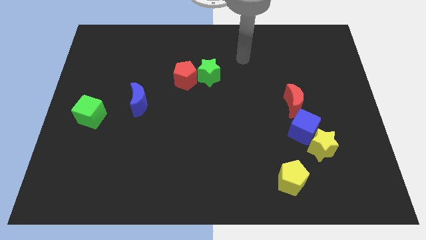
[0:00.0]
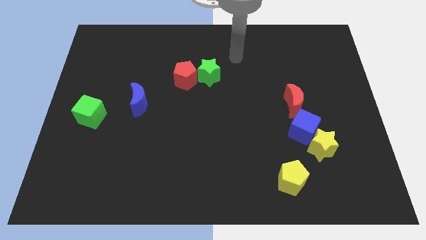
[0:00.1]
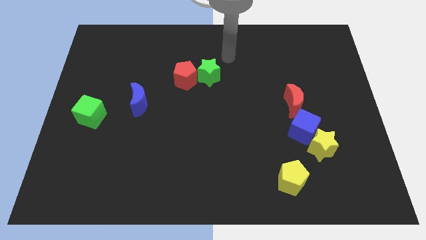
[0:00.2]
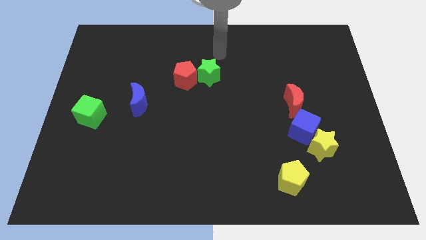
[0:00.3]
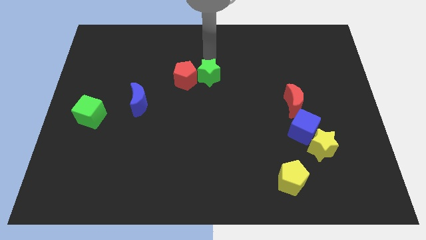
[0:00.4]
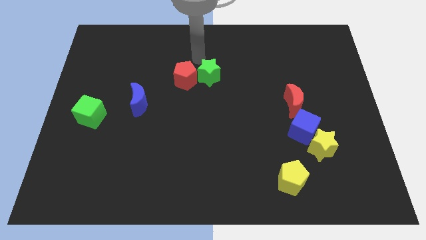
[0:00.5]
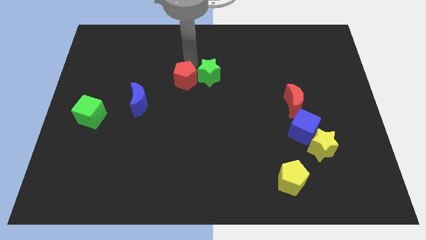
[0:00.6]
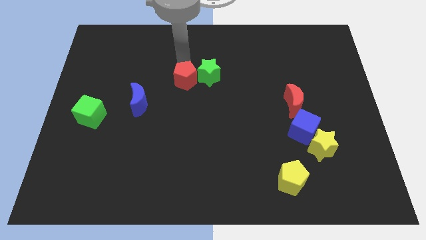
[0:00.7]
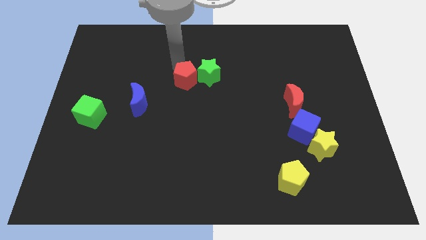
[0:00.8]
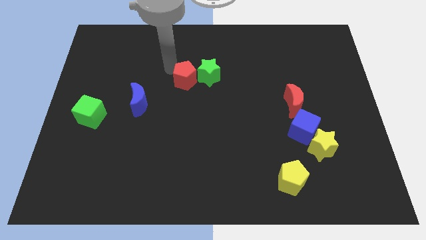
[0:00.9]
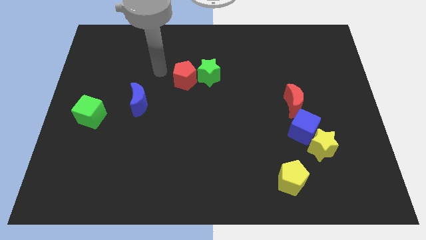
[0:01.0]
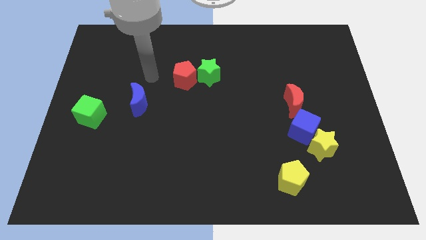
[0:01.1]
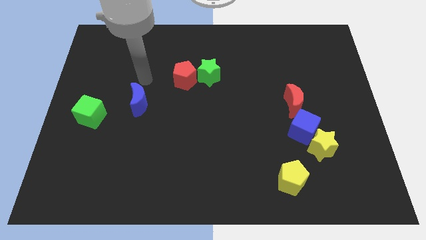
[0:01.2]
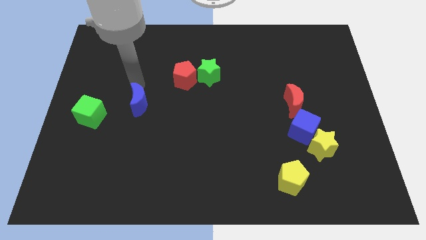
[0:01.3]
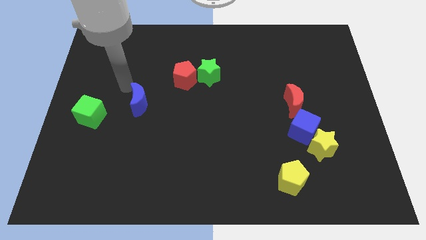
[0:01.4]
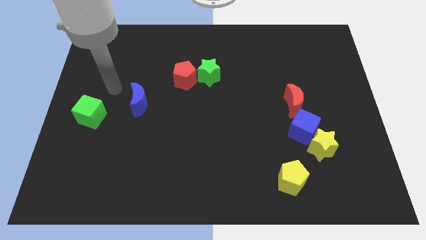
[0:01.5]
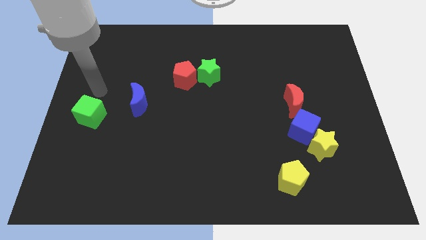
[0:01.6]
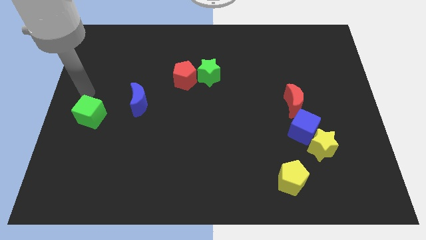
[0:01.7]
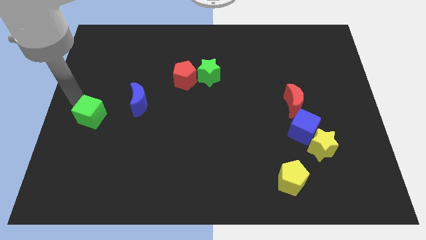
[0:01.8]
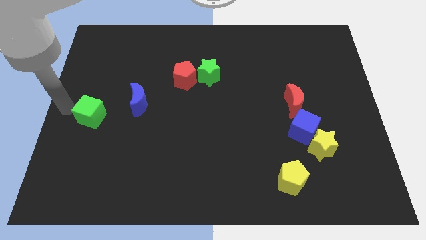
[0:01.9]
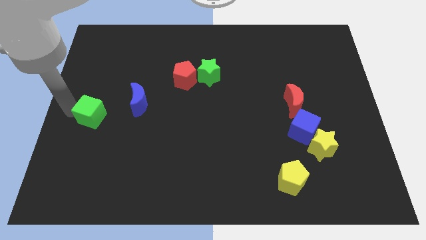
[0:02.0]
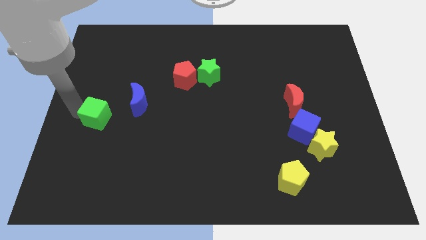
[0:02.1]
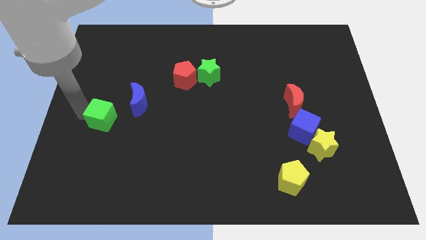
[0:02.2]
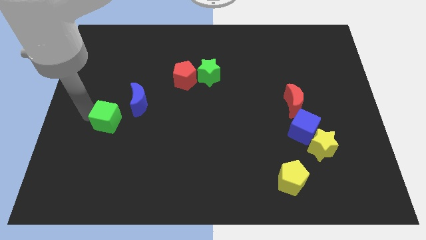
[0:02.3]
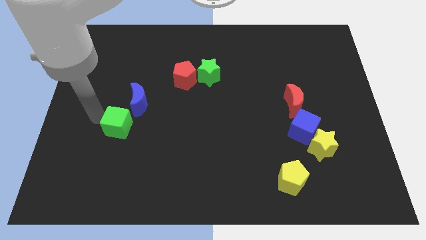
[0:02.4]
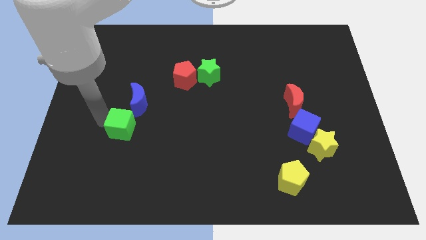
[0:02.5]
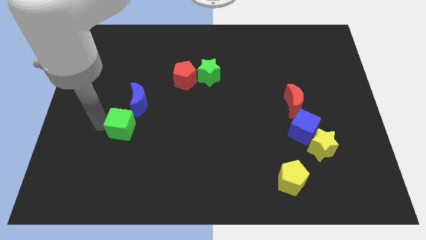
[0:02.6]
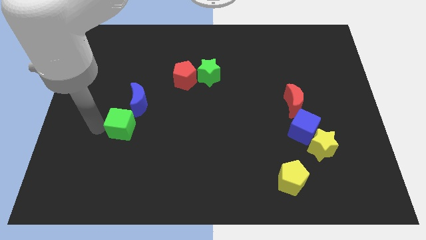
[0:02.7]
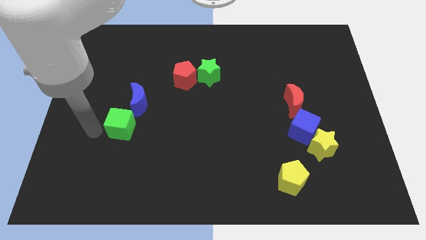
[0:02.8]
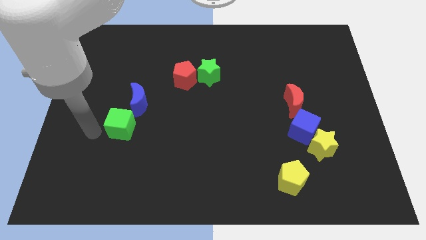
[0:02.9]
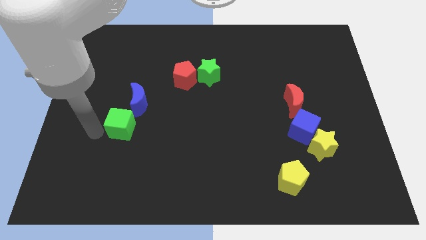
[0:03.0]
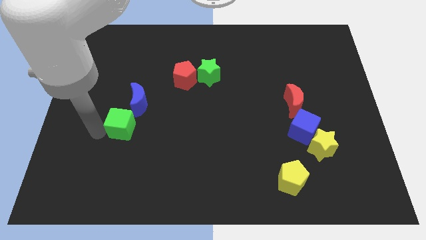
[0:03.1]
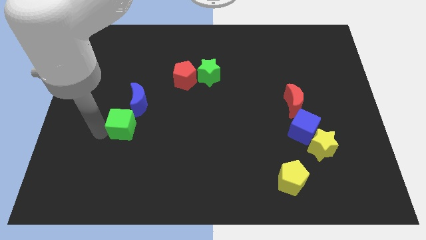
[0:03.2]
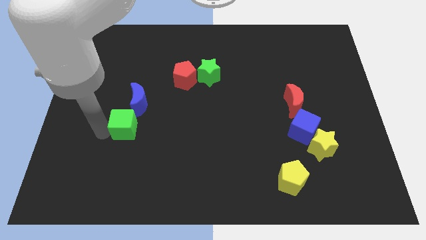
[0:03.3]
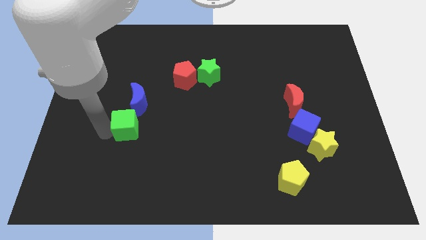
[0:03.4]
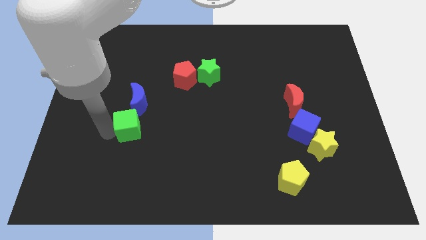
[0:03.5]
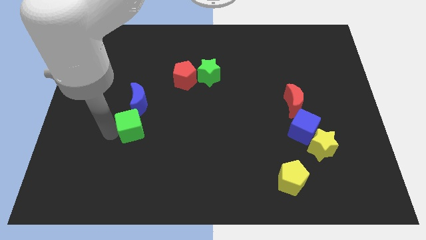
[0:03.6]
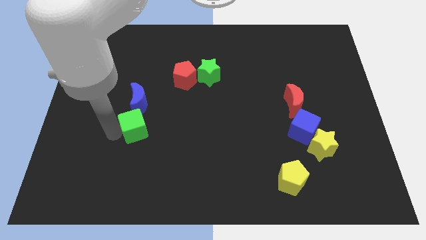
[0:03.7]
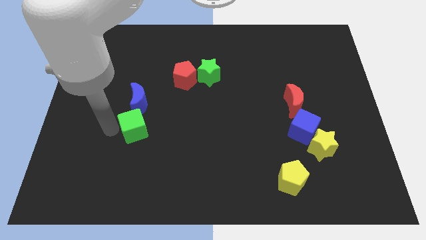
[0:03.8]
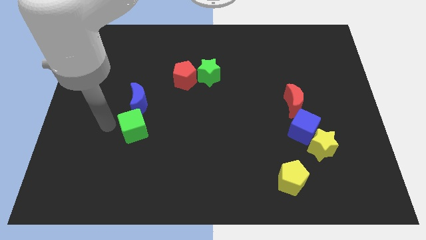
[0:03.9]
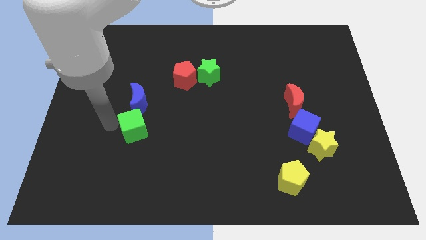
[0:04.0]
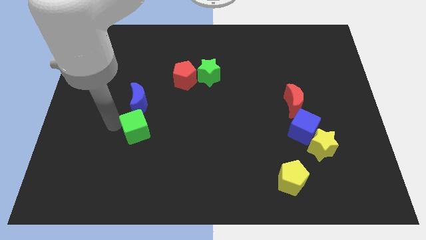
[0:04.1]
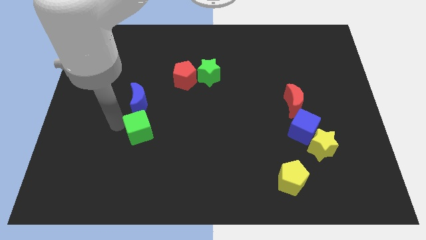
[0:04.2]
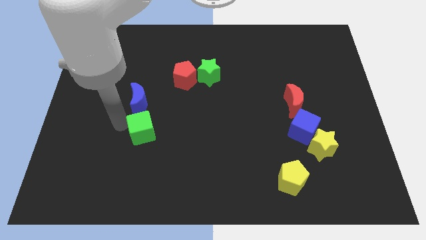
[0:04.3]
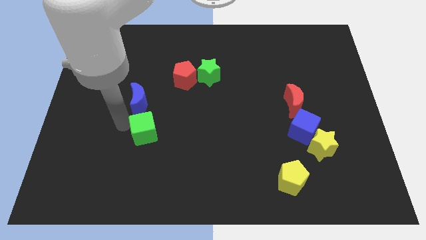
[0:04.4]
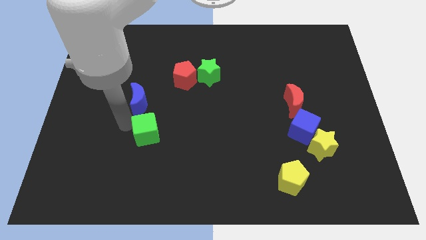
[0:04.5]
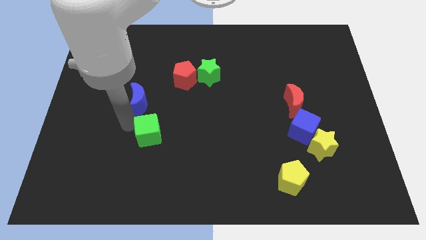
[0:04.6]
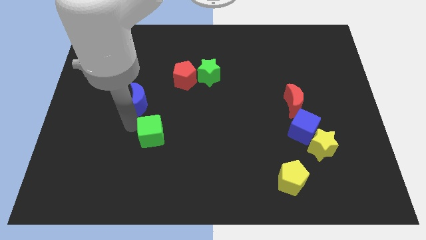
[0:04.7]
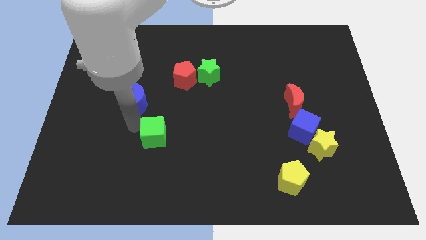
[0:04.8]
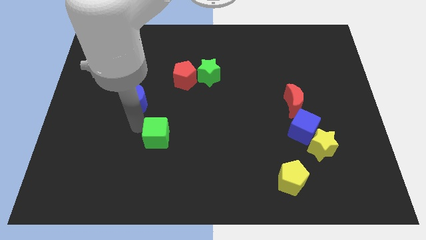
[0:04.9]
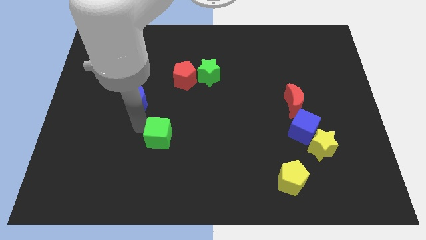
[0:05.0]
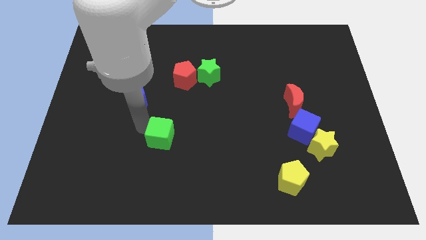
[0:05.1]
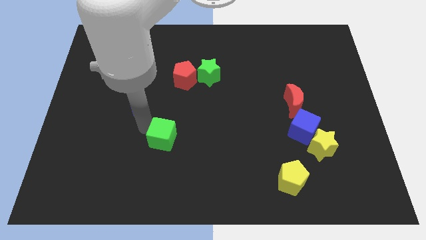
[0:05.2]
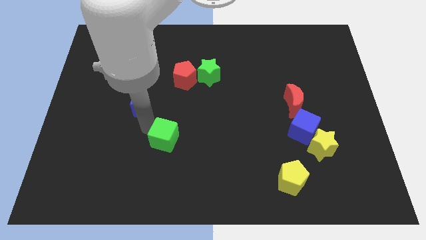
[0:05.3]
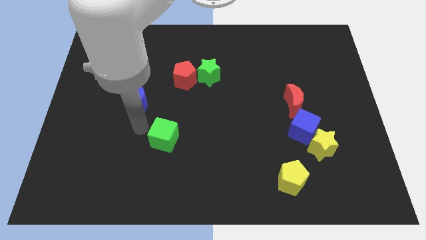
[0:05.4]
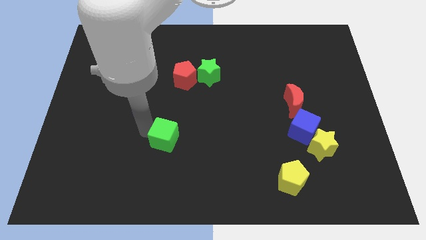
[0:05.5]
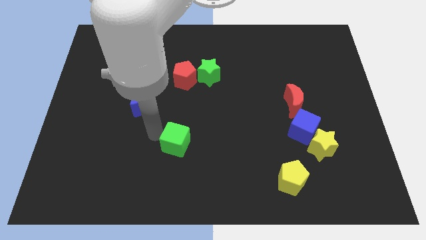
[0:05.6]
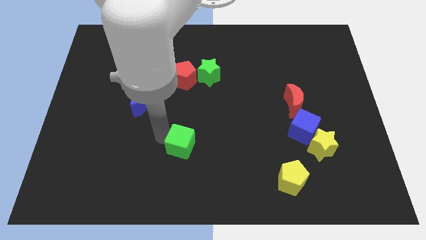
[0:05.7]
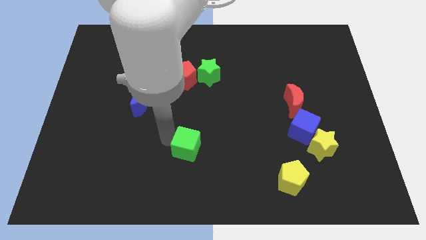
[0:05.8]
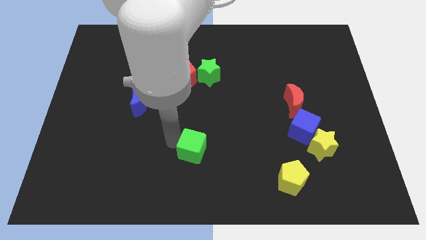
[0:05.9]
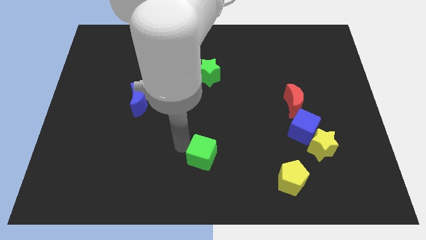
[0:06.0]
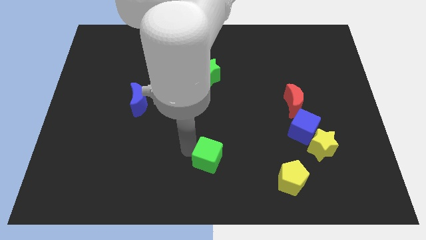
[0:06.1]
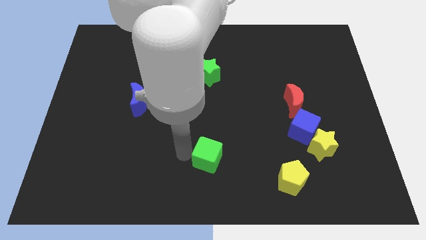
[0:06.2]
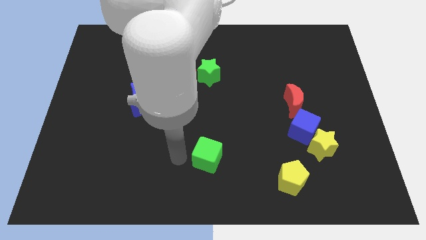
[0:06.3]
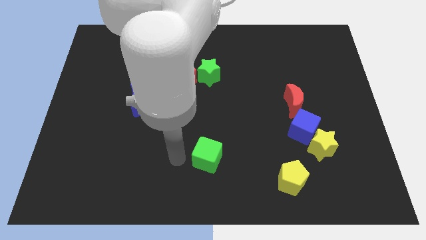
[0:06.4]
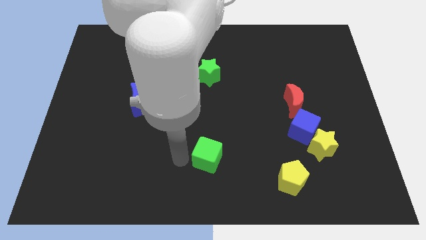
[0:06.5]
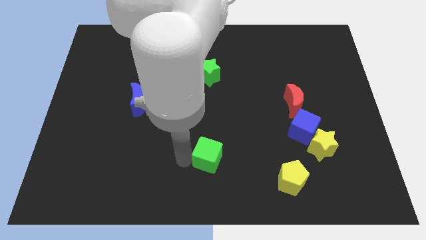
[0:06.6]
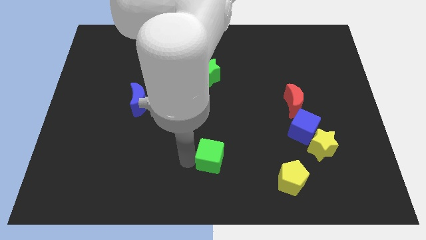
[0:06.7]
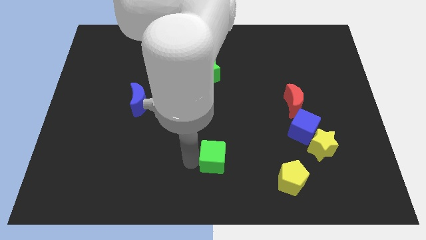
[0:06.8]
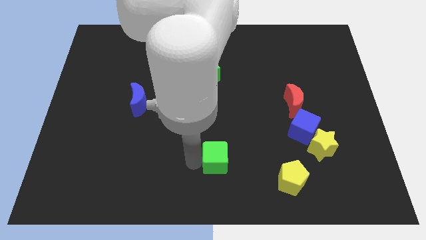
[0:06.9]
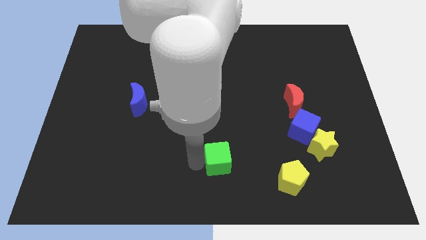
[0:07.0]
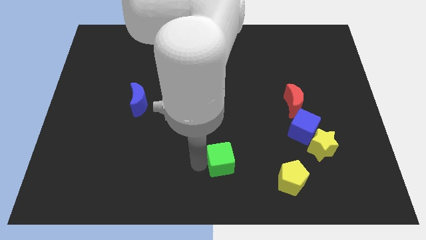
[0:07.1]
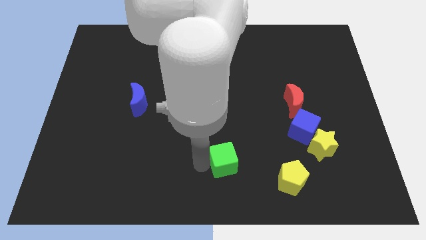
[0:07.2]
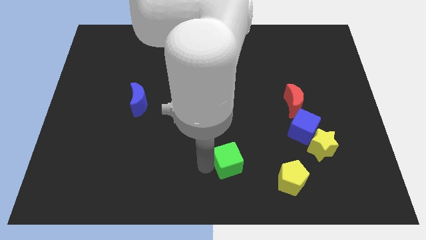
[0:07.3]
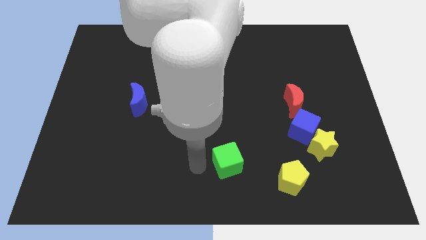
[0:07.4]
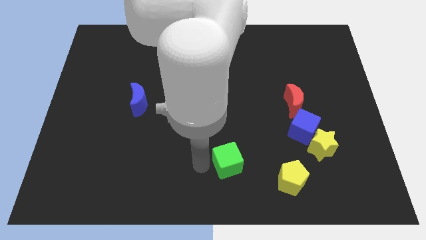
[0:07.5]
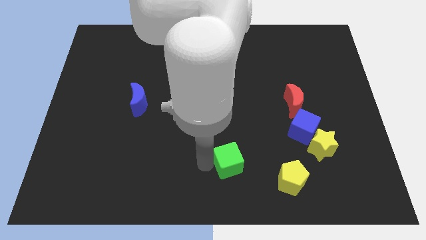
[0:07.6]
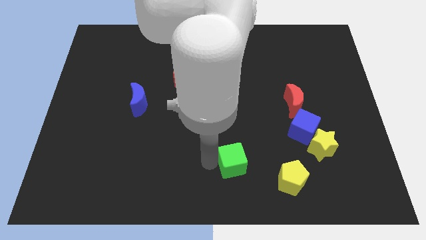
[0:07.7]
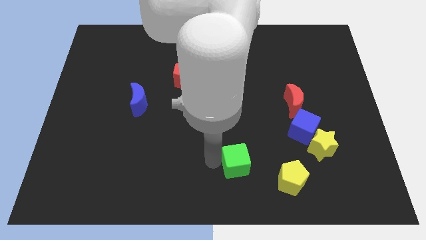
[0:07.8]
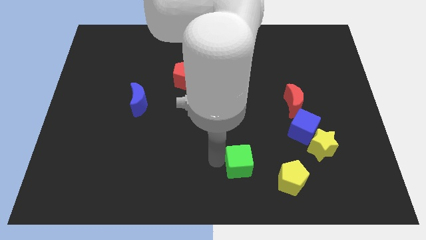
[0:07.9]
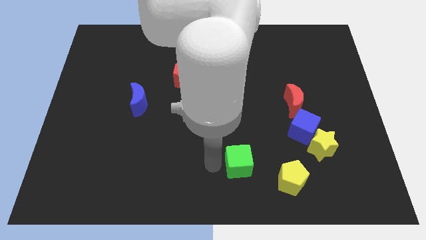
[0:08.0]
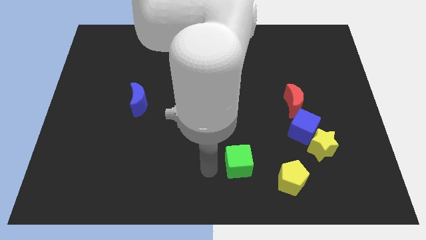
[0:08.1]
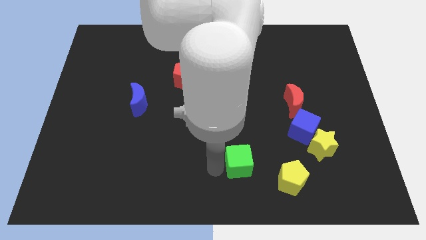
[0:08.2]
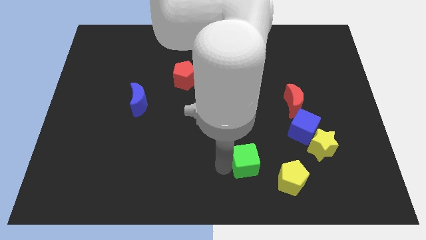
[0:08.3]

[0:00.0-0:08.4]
slide the green cube to the top left of the yellow pentagon
